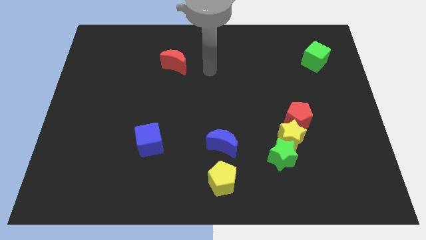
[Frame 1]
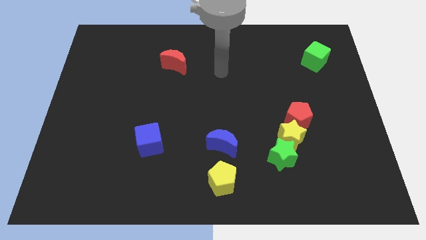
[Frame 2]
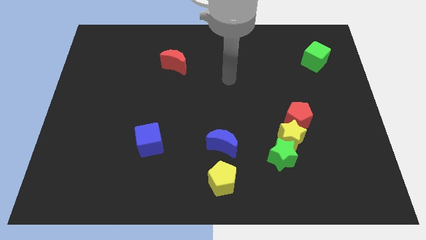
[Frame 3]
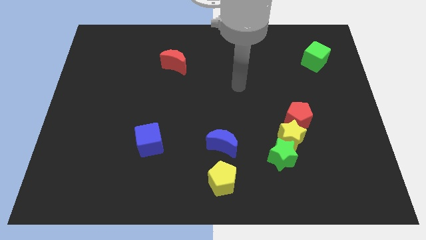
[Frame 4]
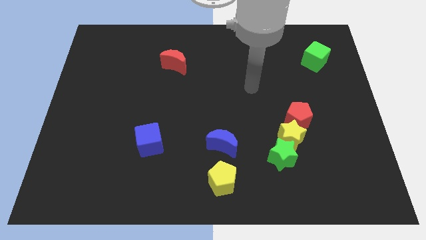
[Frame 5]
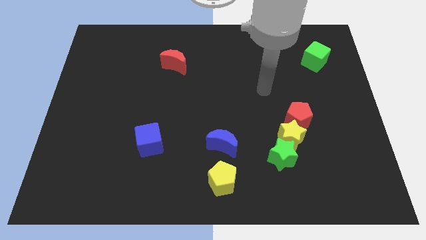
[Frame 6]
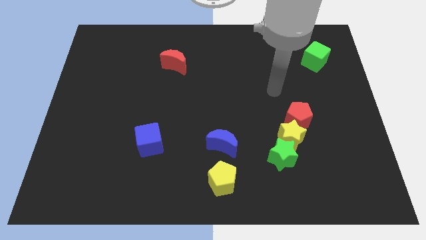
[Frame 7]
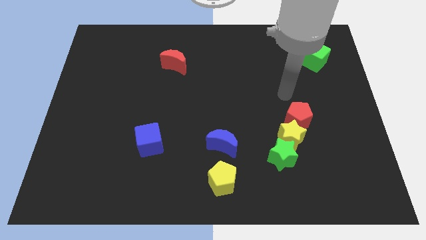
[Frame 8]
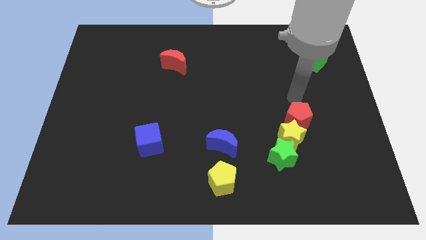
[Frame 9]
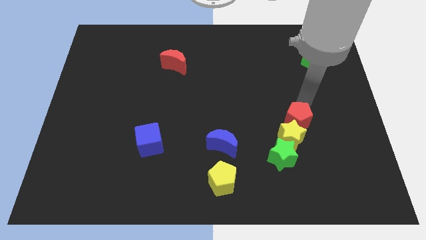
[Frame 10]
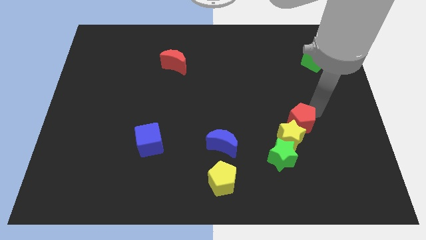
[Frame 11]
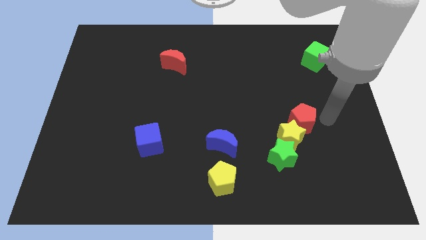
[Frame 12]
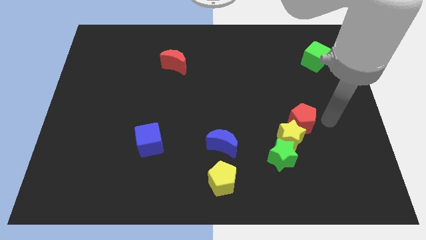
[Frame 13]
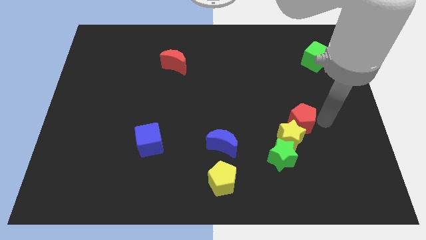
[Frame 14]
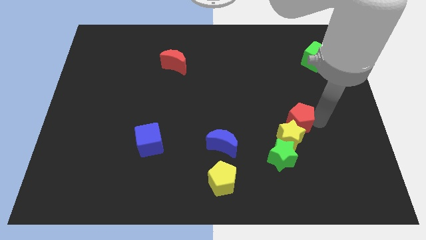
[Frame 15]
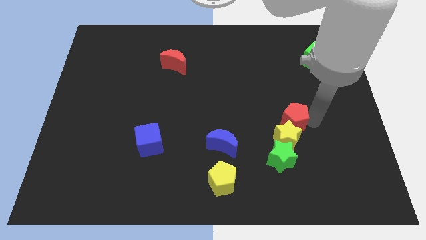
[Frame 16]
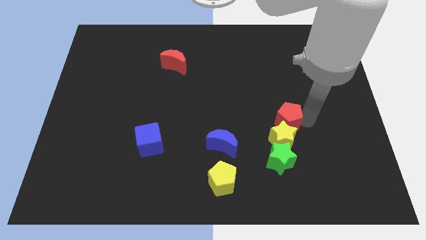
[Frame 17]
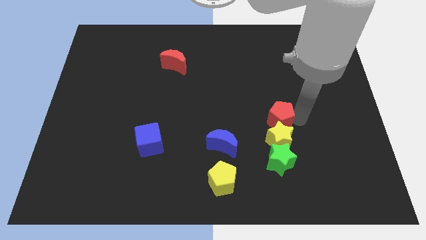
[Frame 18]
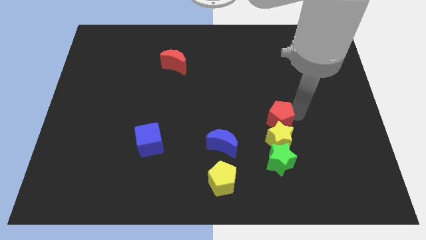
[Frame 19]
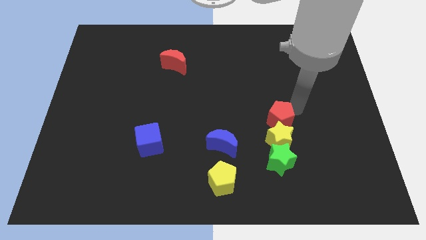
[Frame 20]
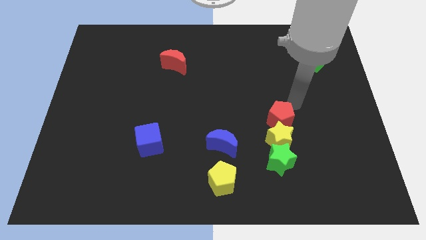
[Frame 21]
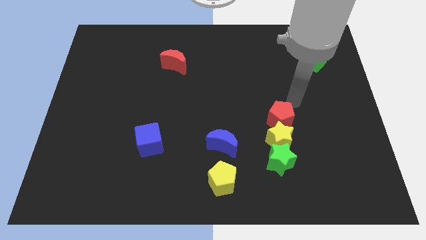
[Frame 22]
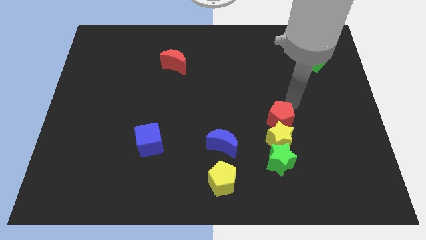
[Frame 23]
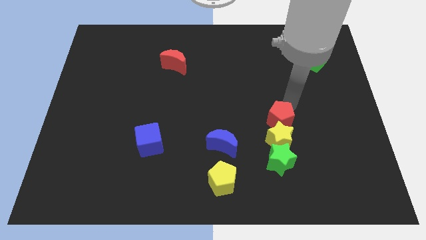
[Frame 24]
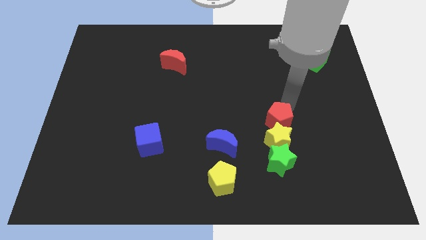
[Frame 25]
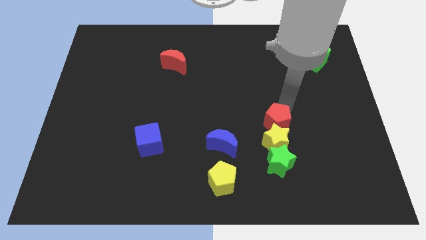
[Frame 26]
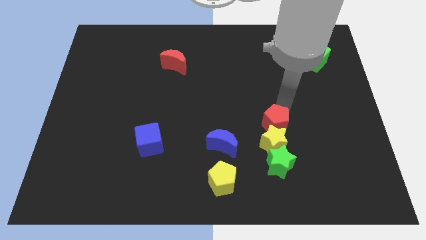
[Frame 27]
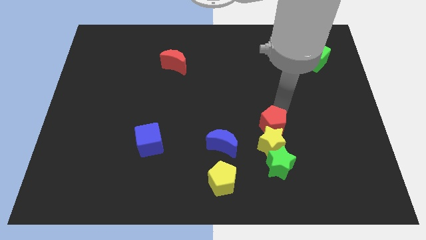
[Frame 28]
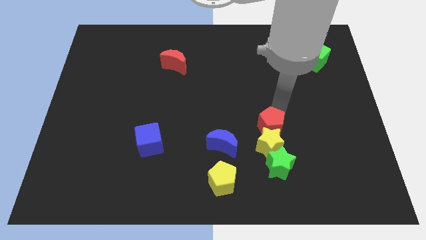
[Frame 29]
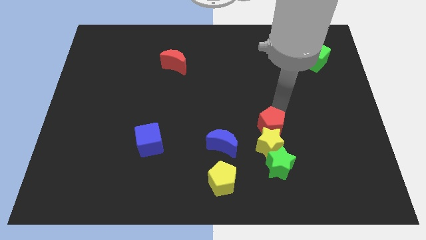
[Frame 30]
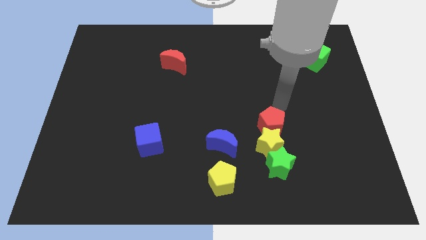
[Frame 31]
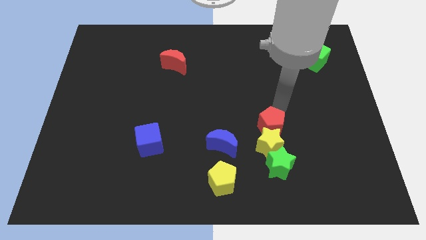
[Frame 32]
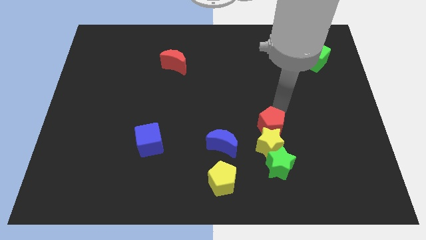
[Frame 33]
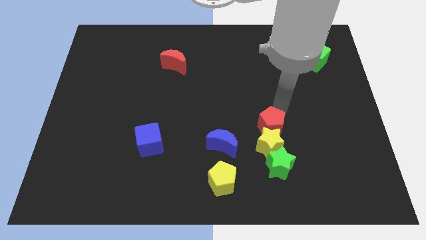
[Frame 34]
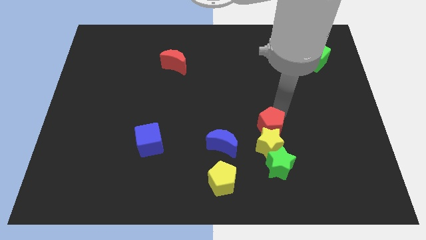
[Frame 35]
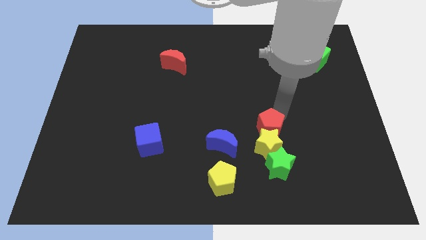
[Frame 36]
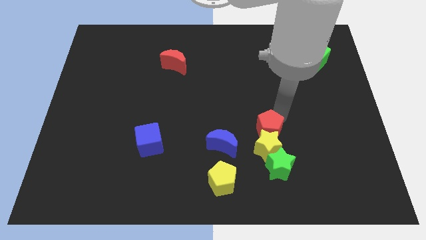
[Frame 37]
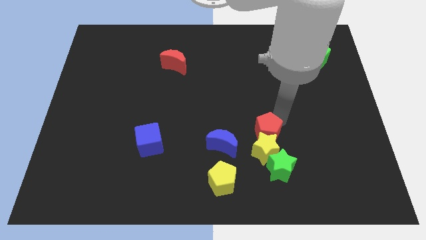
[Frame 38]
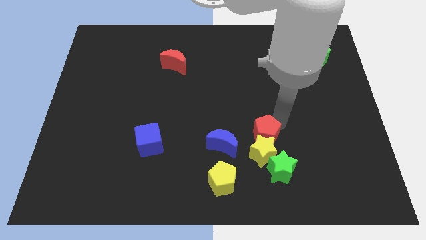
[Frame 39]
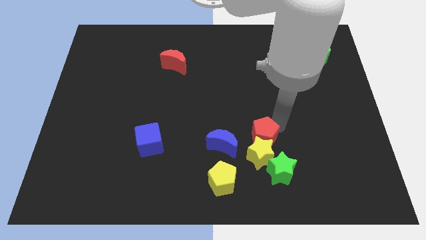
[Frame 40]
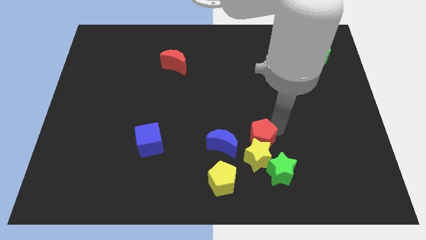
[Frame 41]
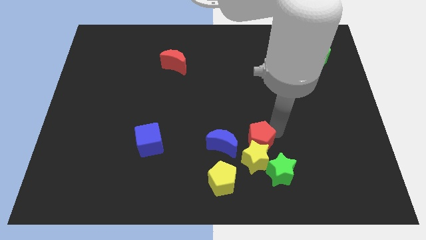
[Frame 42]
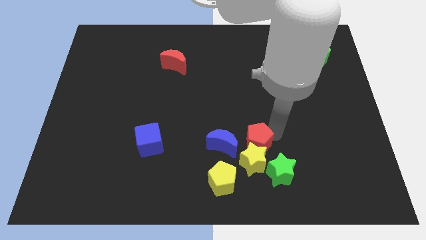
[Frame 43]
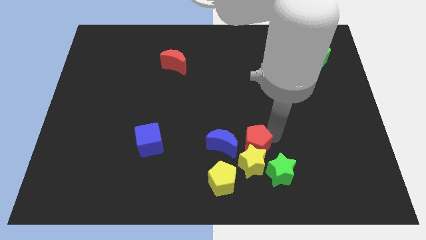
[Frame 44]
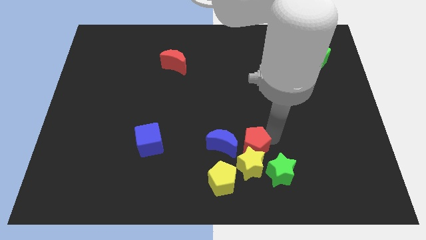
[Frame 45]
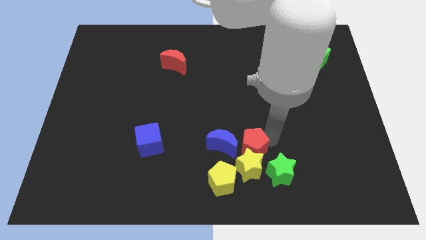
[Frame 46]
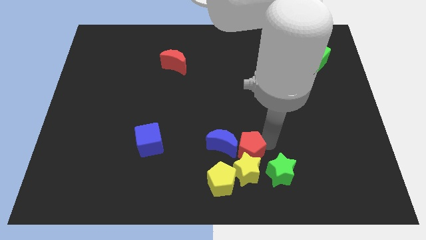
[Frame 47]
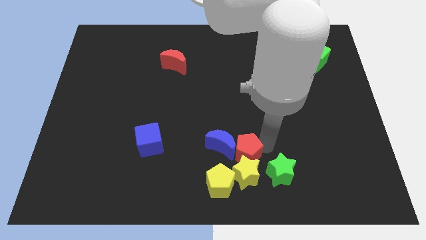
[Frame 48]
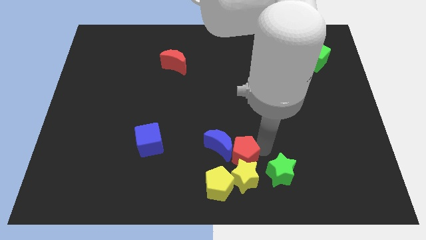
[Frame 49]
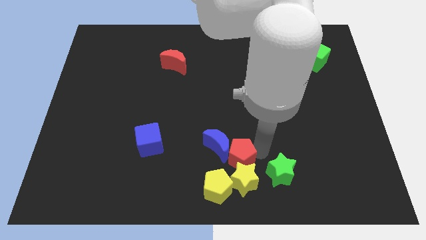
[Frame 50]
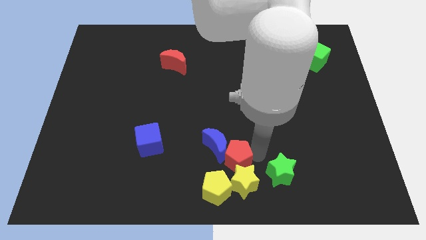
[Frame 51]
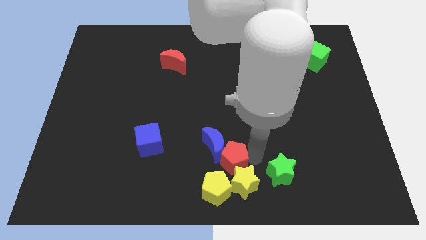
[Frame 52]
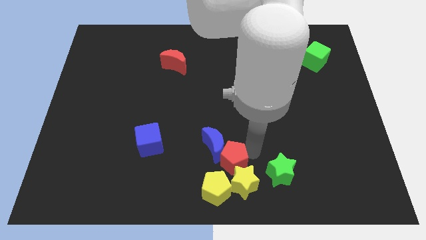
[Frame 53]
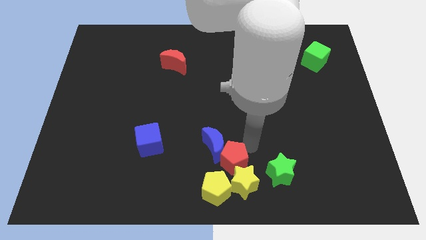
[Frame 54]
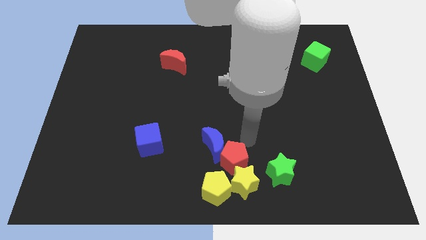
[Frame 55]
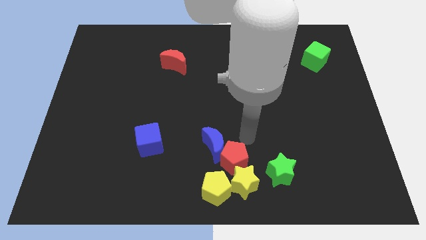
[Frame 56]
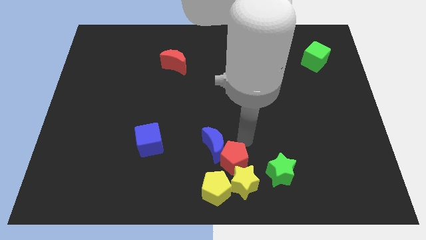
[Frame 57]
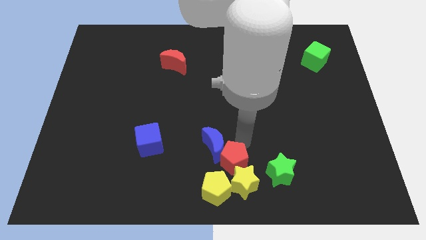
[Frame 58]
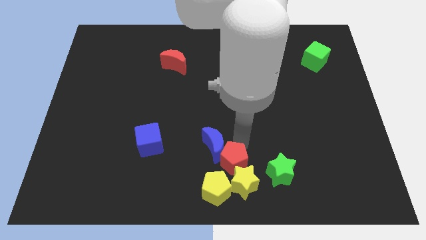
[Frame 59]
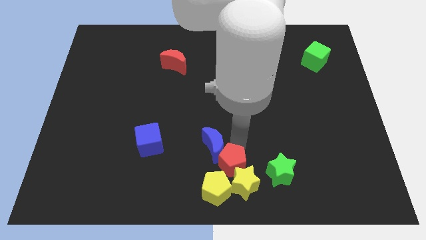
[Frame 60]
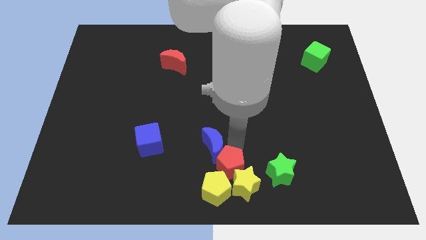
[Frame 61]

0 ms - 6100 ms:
push the red pentagon next to the yellow pentagon
